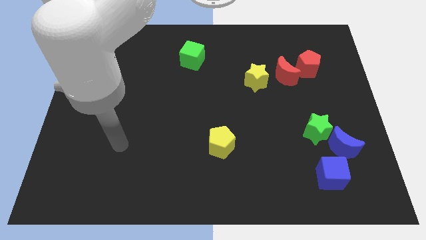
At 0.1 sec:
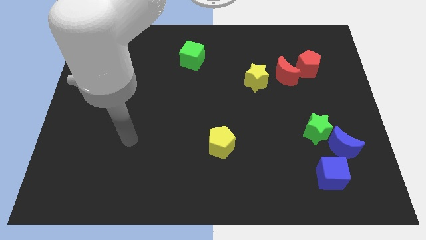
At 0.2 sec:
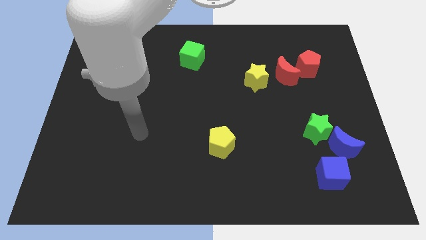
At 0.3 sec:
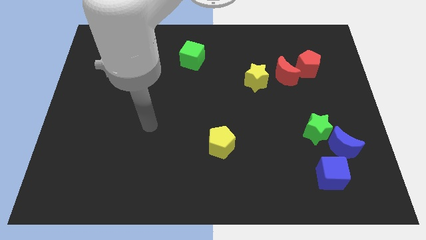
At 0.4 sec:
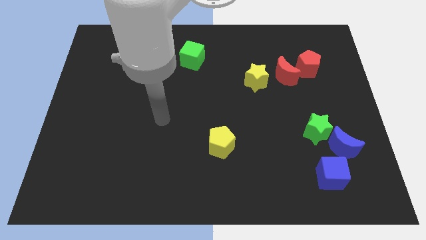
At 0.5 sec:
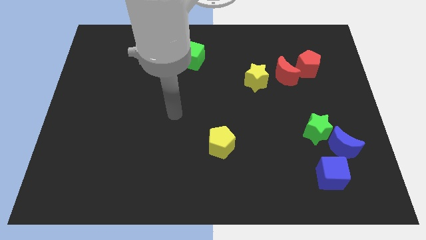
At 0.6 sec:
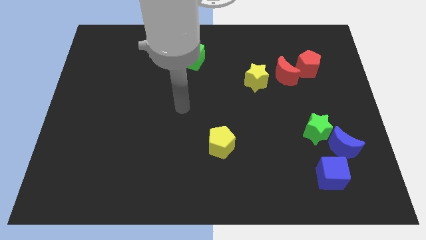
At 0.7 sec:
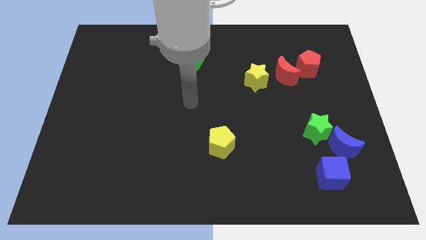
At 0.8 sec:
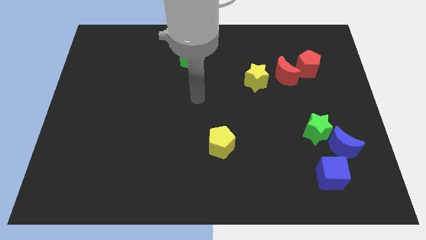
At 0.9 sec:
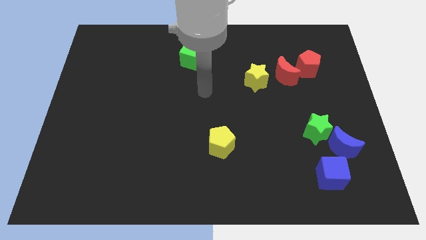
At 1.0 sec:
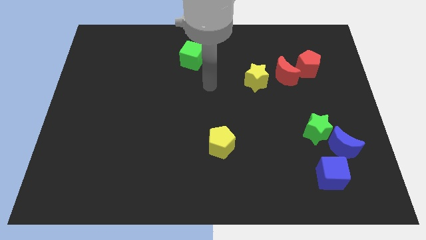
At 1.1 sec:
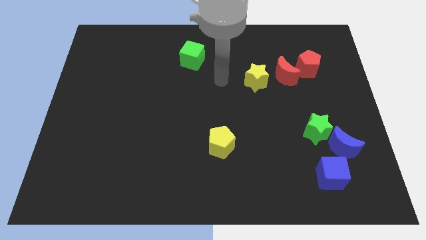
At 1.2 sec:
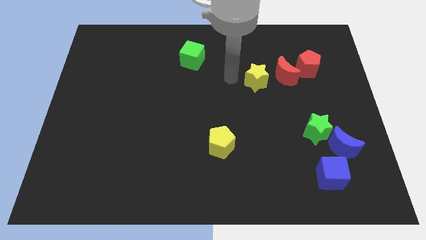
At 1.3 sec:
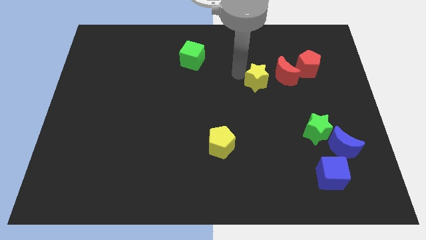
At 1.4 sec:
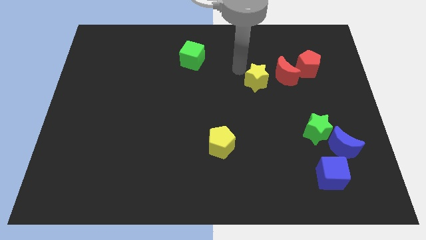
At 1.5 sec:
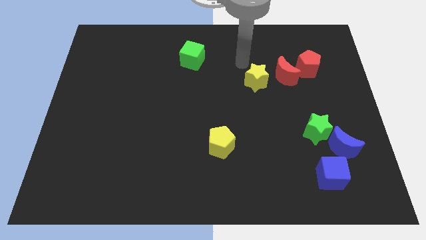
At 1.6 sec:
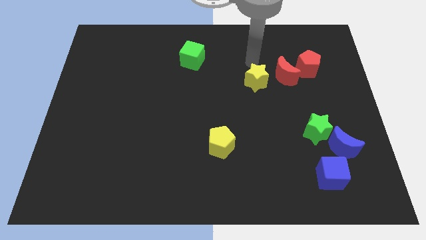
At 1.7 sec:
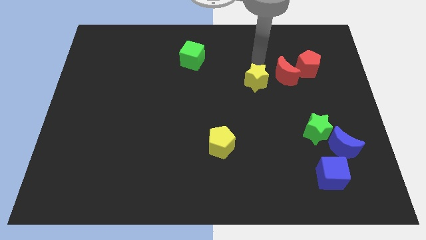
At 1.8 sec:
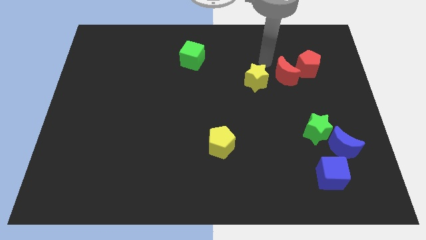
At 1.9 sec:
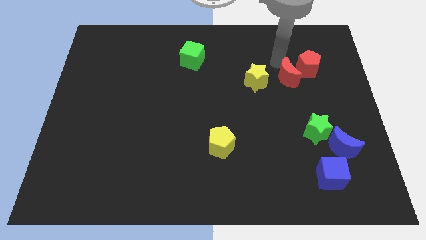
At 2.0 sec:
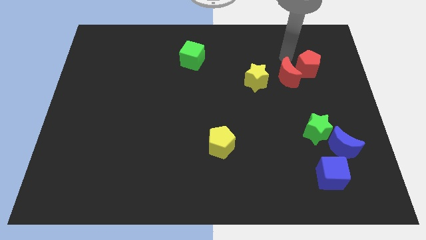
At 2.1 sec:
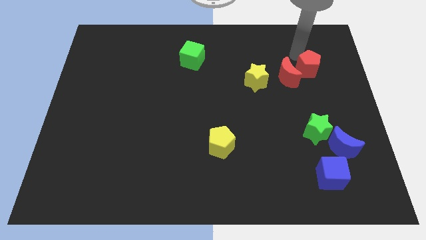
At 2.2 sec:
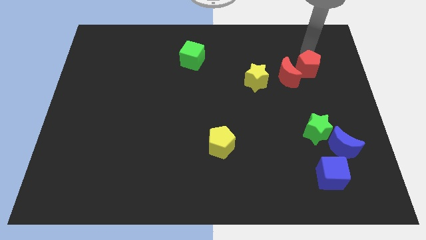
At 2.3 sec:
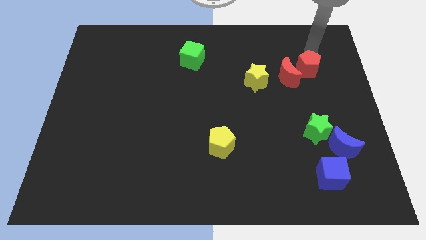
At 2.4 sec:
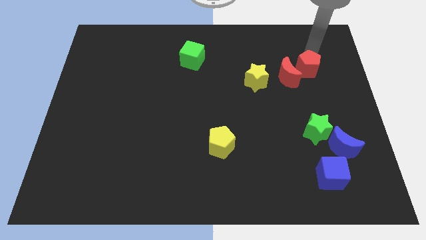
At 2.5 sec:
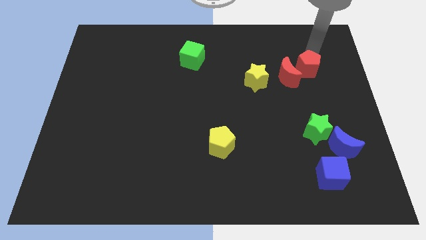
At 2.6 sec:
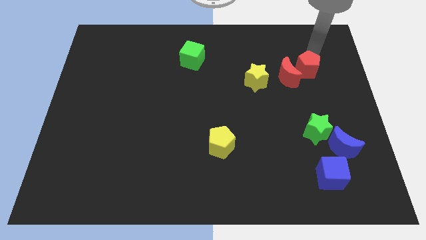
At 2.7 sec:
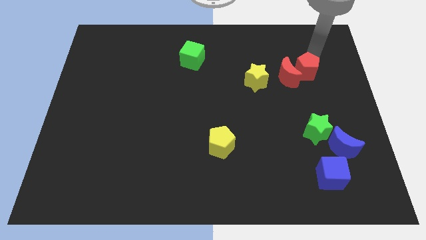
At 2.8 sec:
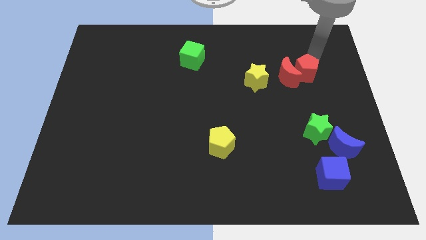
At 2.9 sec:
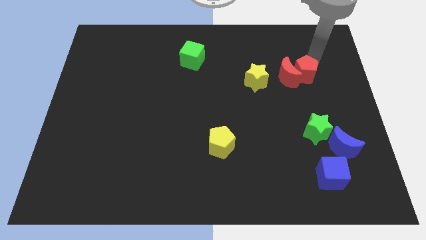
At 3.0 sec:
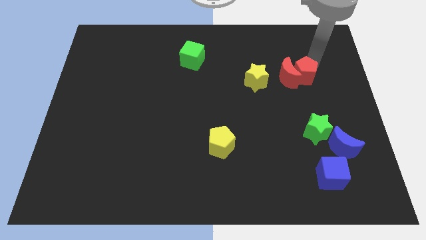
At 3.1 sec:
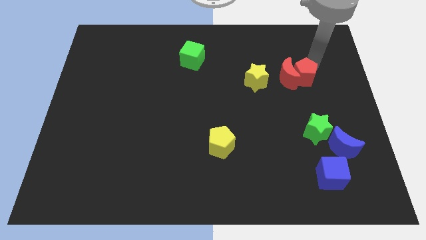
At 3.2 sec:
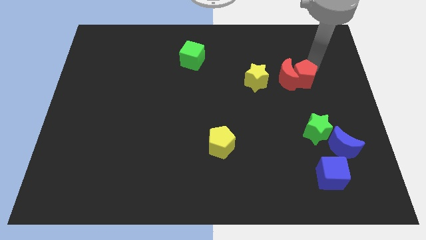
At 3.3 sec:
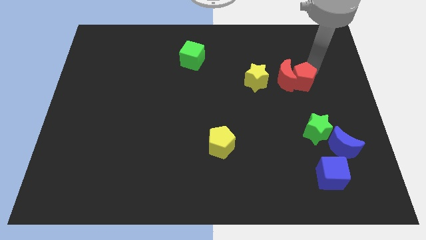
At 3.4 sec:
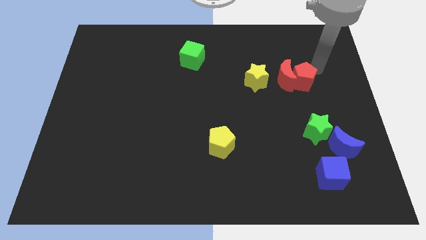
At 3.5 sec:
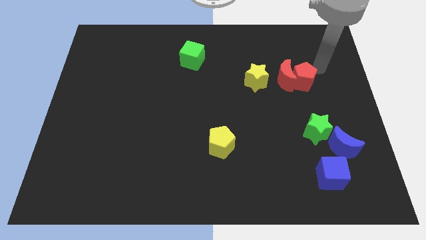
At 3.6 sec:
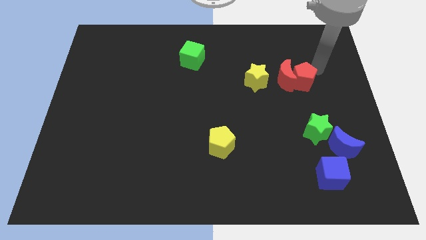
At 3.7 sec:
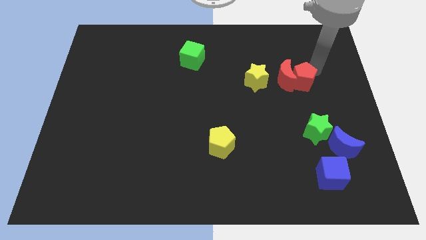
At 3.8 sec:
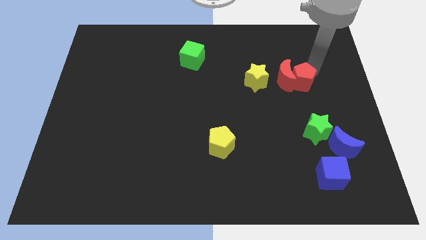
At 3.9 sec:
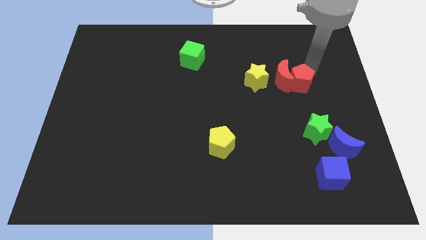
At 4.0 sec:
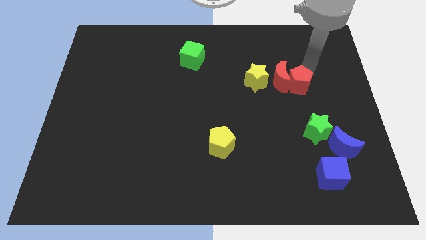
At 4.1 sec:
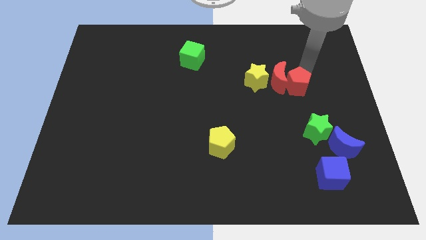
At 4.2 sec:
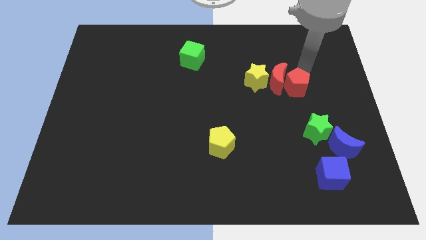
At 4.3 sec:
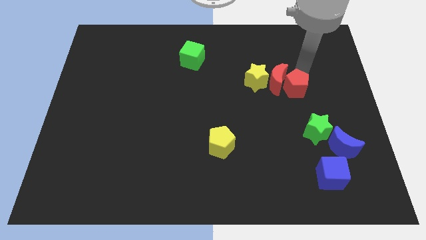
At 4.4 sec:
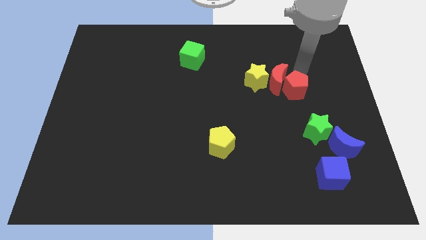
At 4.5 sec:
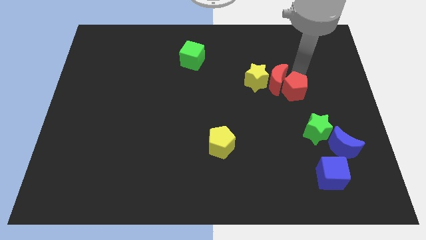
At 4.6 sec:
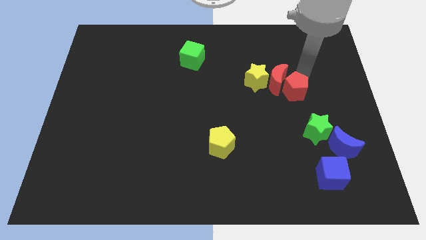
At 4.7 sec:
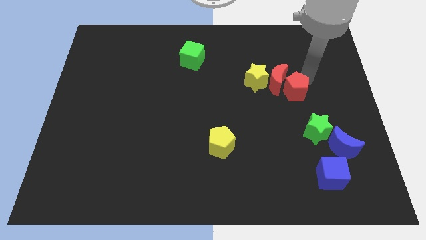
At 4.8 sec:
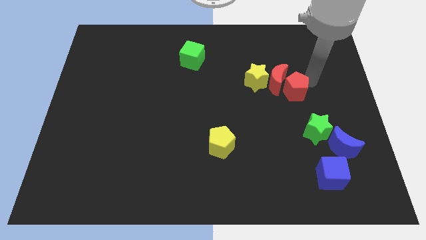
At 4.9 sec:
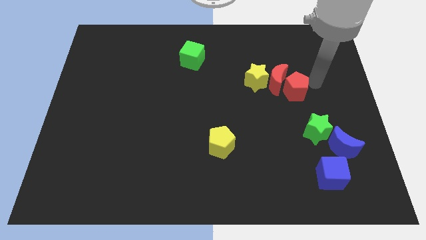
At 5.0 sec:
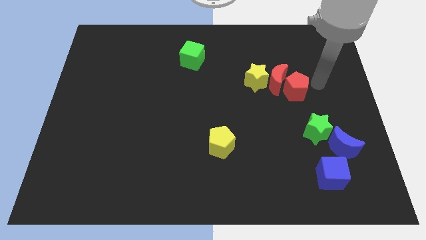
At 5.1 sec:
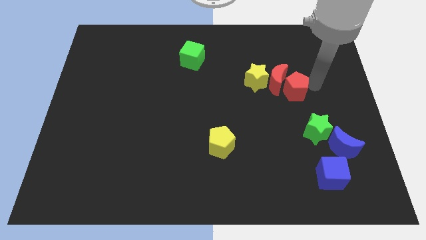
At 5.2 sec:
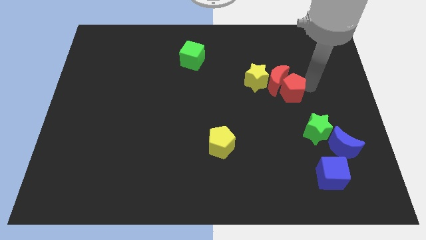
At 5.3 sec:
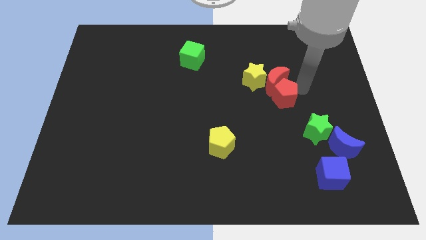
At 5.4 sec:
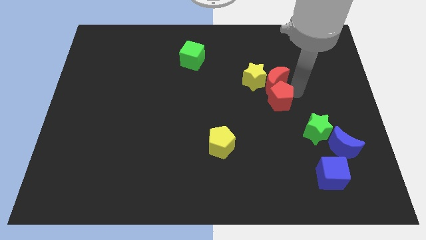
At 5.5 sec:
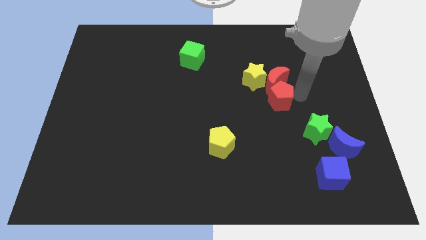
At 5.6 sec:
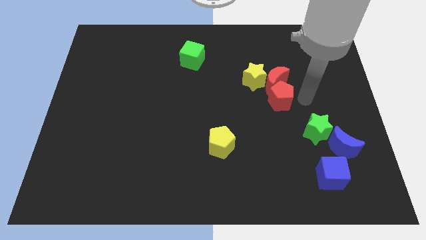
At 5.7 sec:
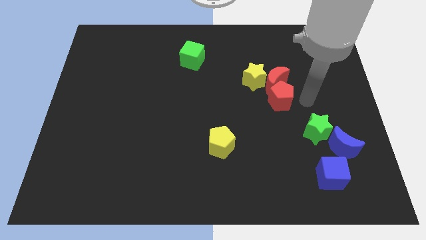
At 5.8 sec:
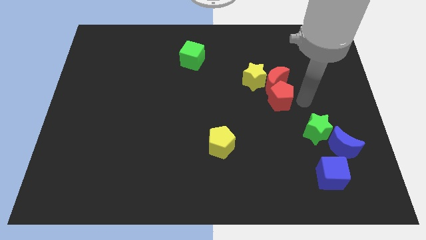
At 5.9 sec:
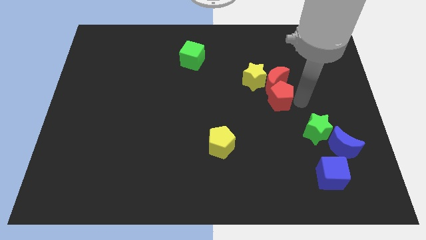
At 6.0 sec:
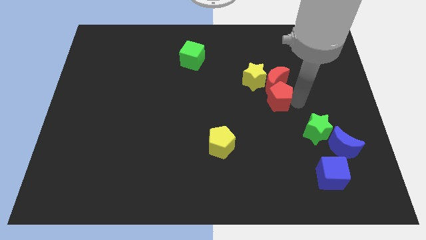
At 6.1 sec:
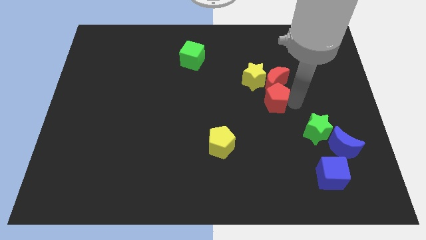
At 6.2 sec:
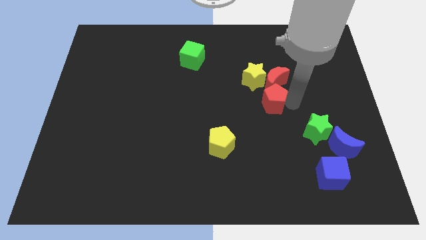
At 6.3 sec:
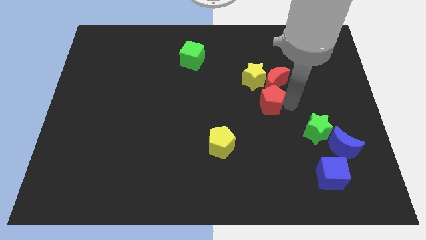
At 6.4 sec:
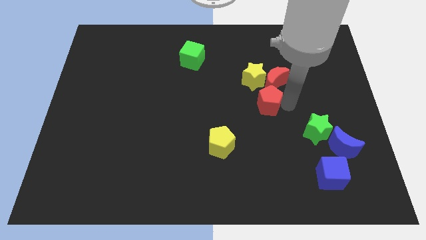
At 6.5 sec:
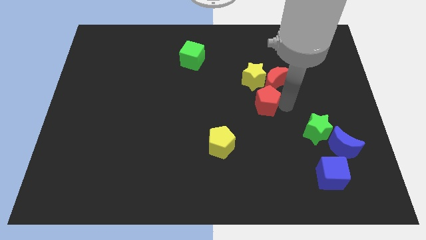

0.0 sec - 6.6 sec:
push the red pentagon to the center
